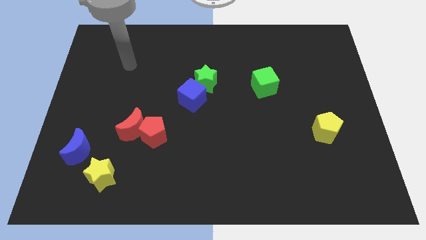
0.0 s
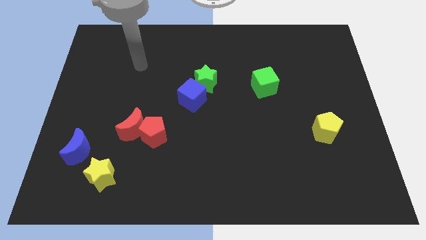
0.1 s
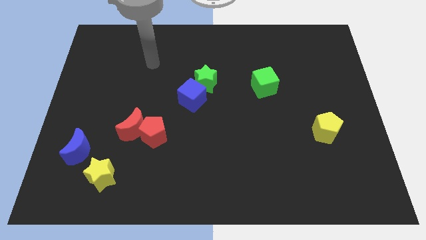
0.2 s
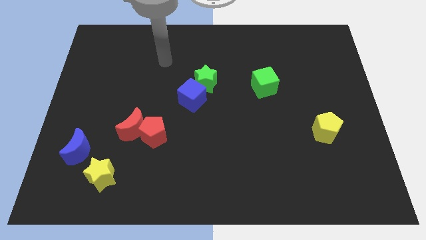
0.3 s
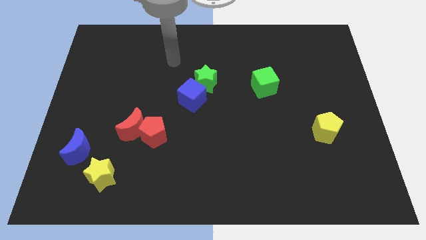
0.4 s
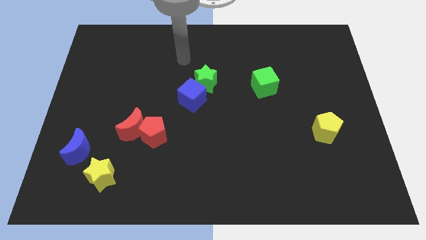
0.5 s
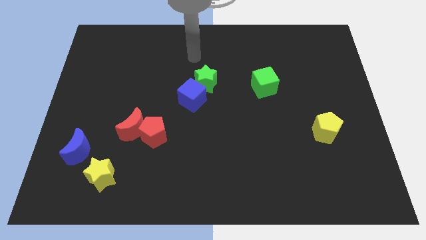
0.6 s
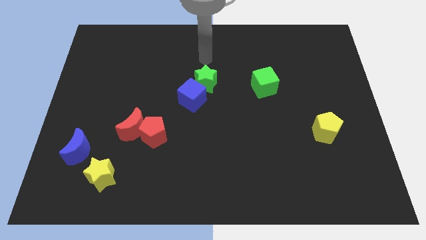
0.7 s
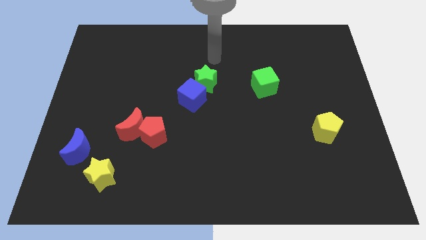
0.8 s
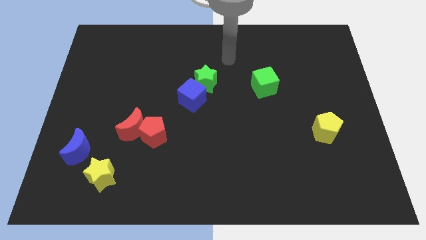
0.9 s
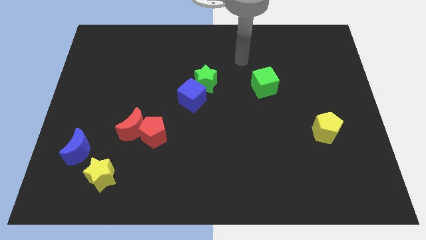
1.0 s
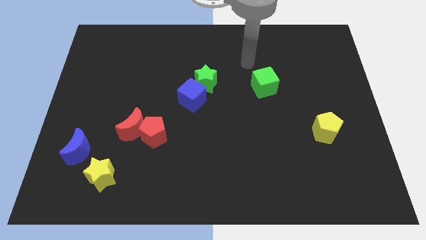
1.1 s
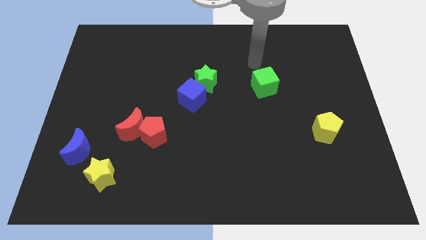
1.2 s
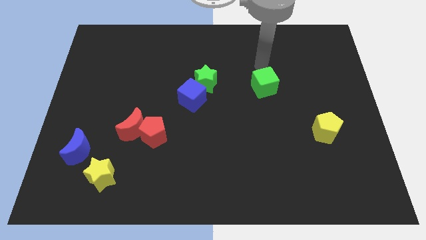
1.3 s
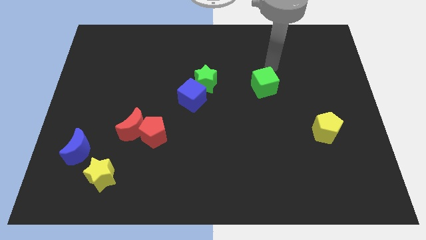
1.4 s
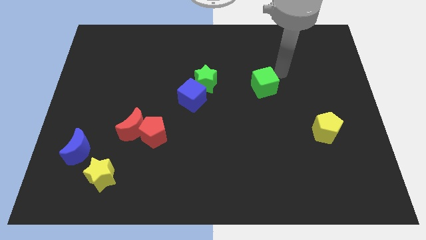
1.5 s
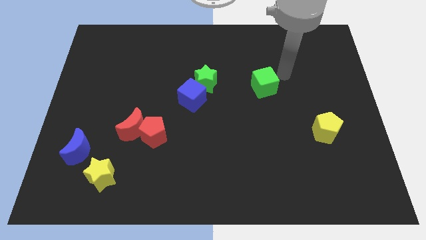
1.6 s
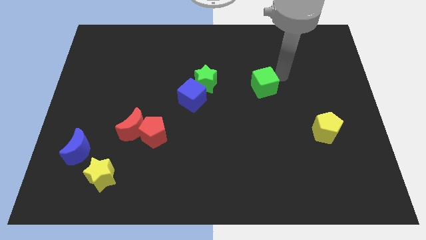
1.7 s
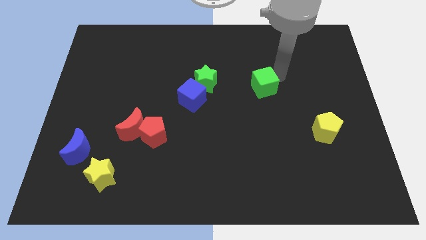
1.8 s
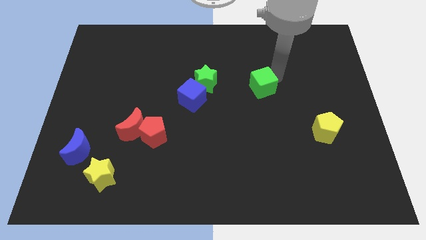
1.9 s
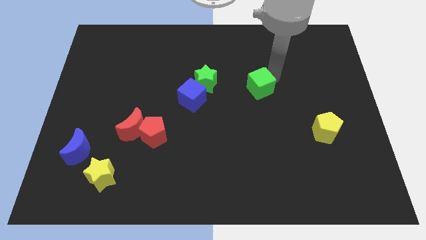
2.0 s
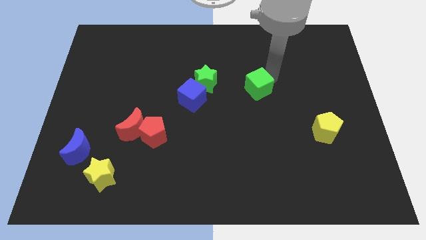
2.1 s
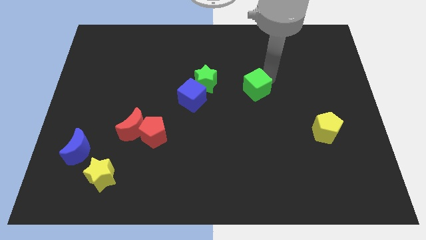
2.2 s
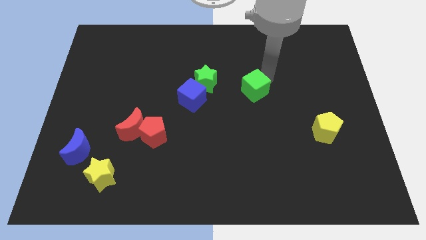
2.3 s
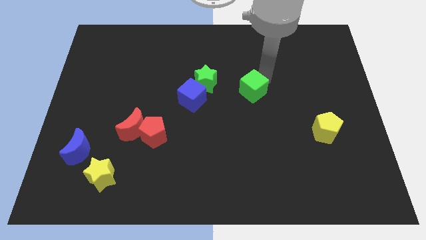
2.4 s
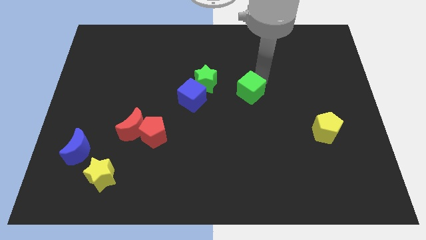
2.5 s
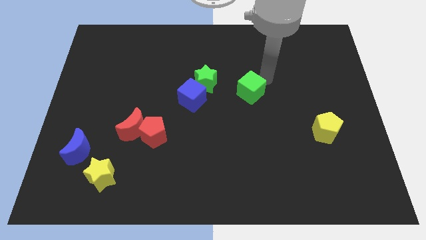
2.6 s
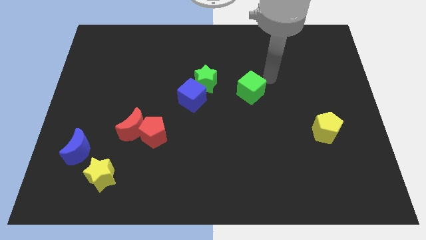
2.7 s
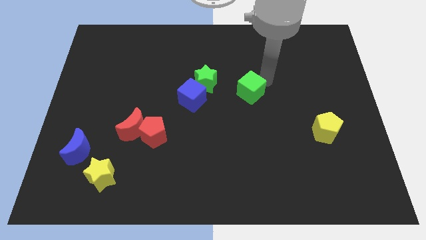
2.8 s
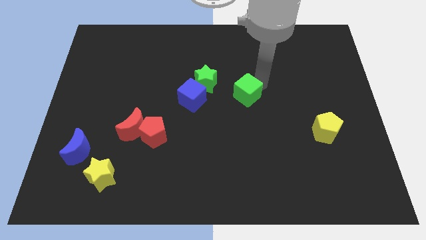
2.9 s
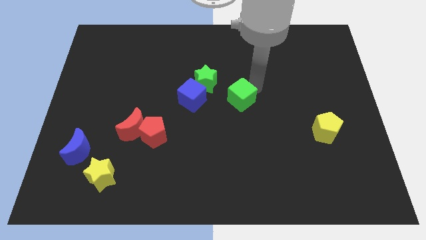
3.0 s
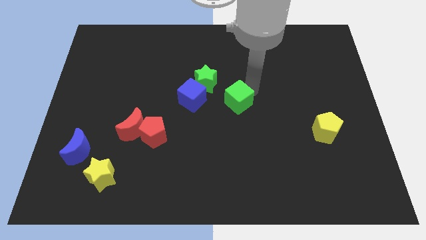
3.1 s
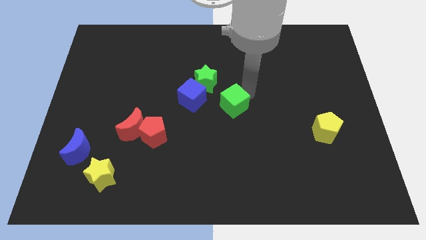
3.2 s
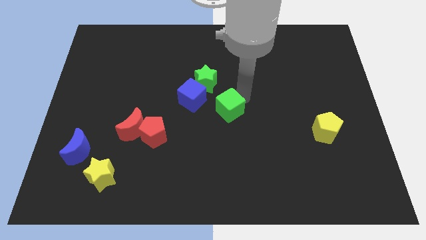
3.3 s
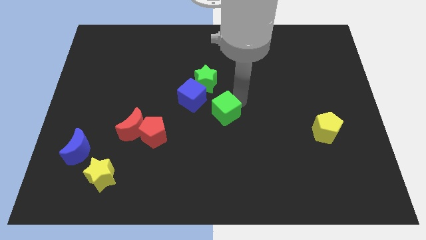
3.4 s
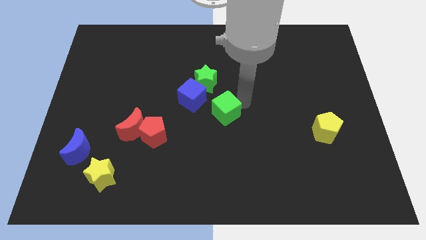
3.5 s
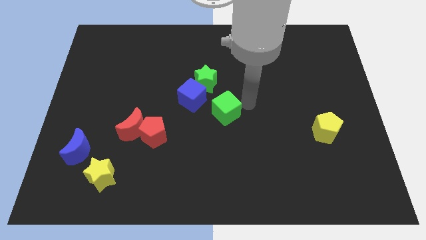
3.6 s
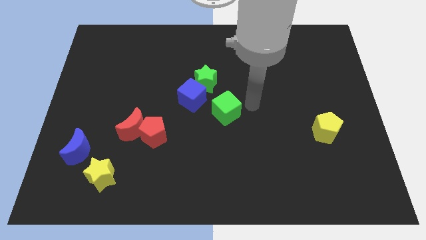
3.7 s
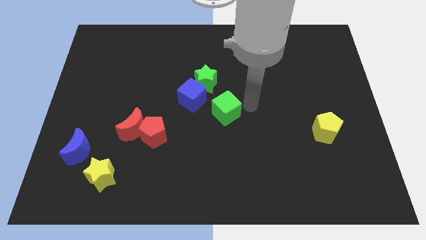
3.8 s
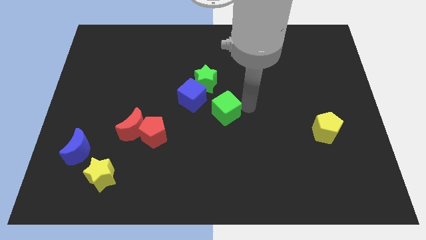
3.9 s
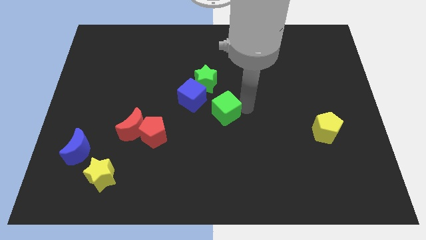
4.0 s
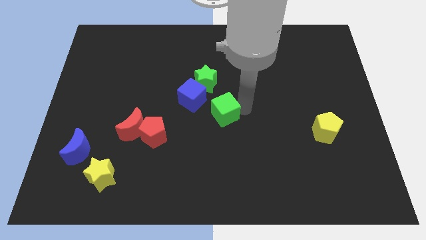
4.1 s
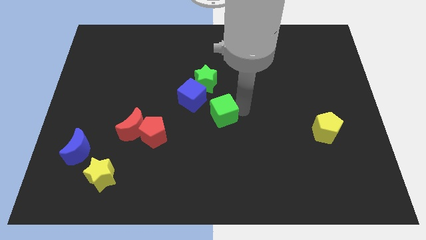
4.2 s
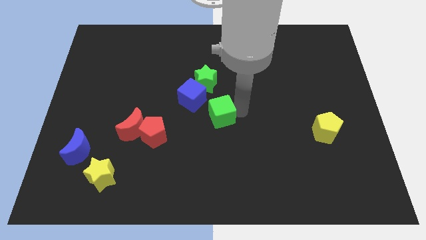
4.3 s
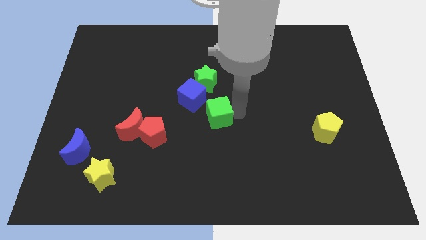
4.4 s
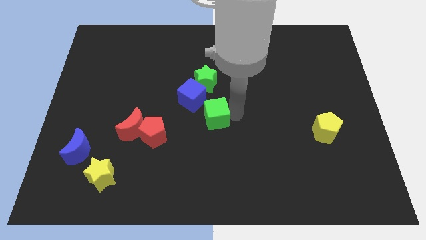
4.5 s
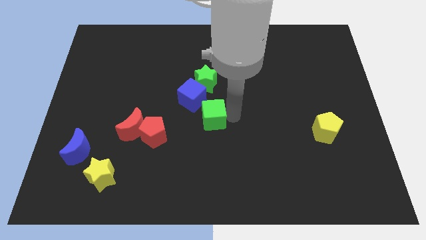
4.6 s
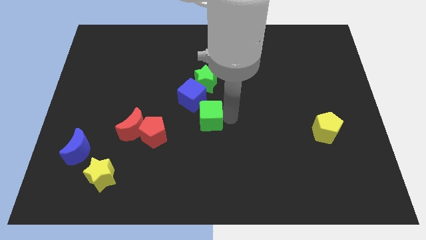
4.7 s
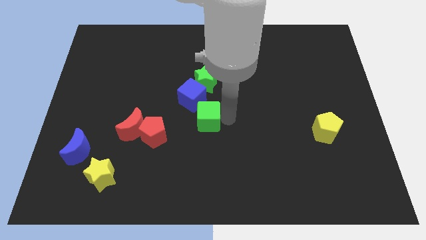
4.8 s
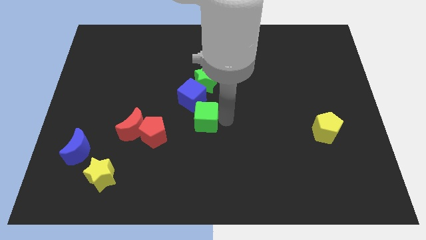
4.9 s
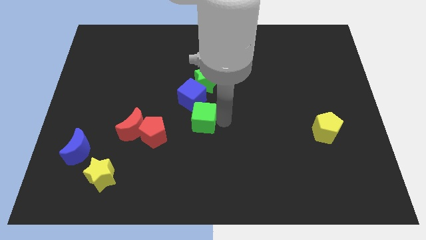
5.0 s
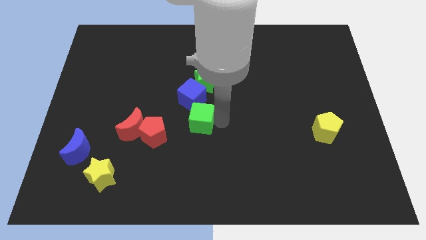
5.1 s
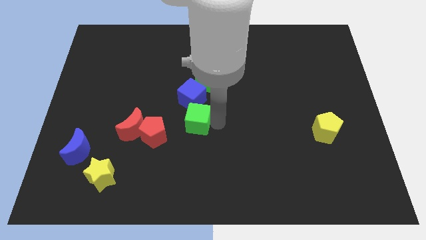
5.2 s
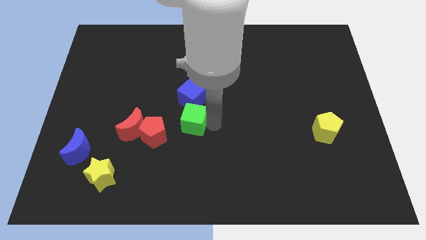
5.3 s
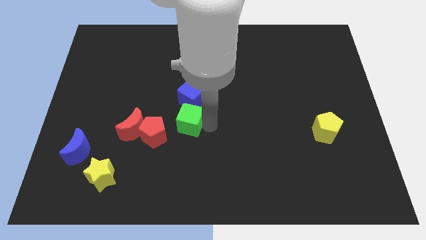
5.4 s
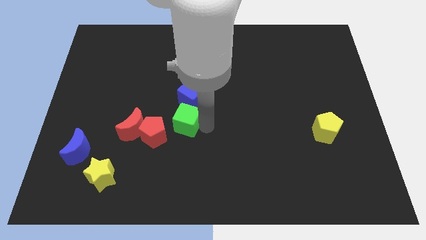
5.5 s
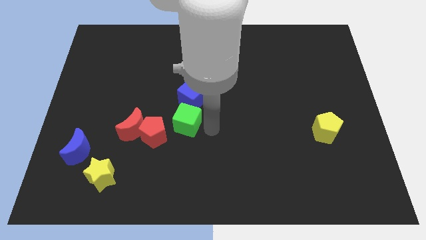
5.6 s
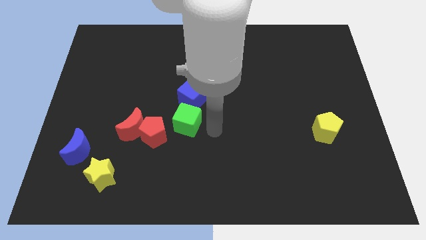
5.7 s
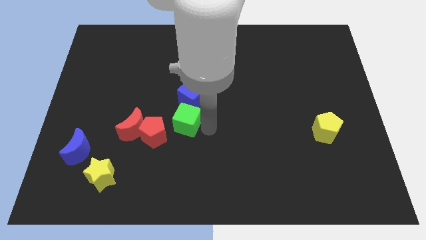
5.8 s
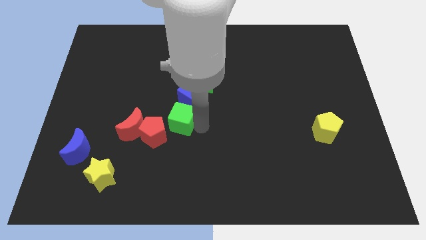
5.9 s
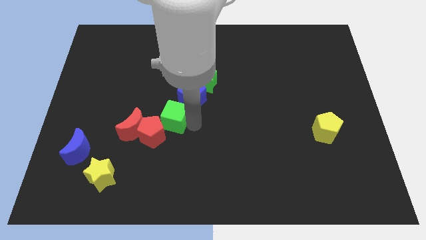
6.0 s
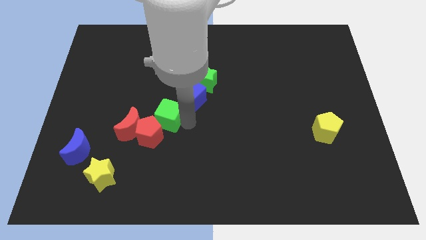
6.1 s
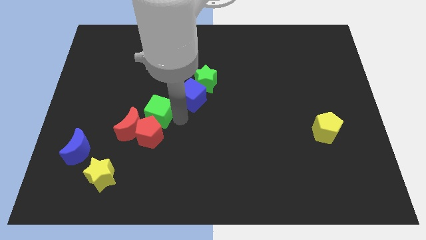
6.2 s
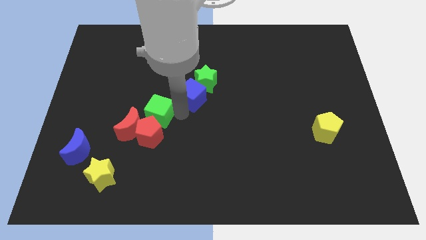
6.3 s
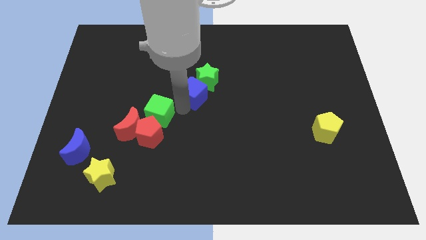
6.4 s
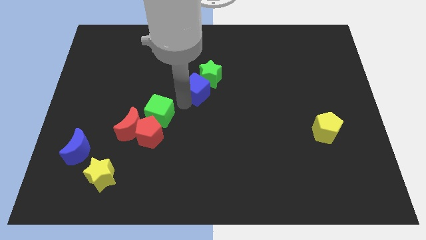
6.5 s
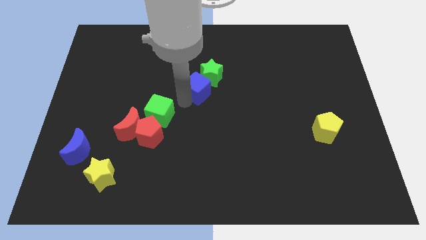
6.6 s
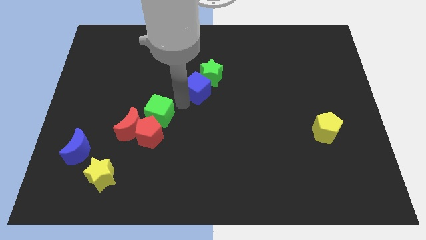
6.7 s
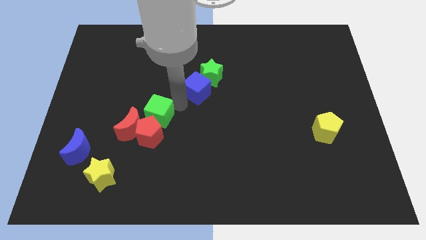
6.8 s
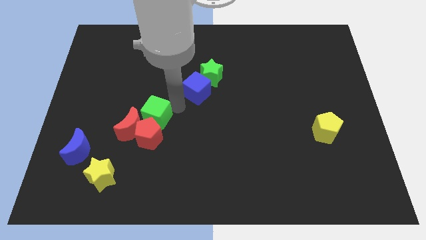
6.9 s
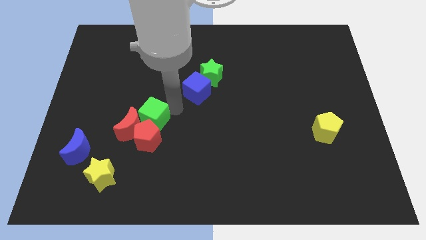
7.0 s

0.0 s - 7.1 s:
move the green cube close to the red moon
